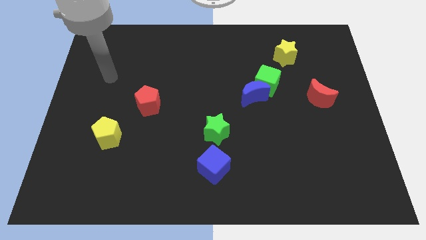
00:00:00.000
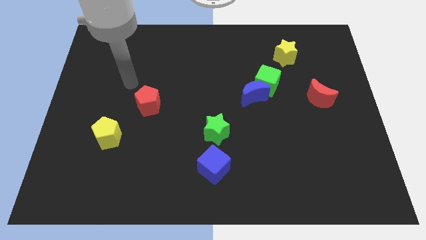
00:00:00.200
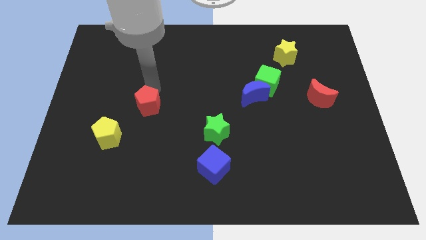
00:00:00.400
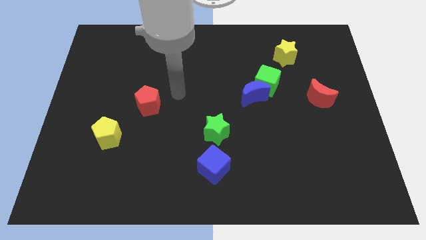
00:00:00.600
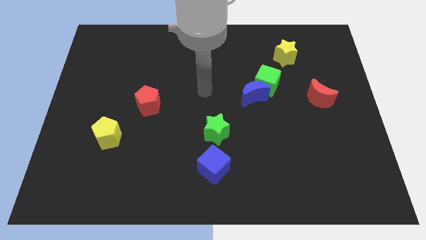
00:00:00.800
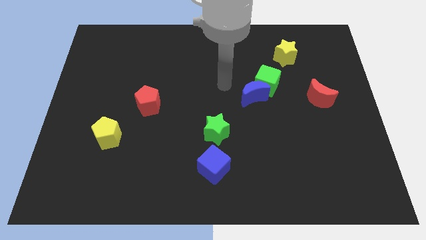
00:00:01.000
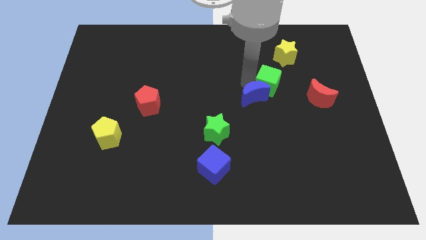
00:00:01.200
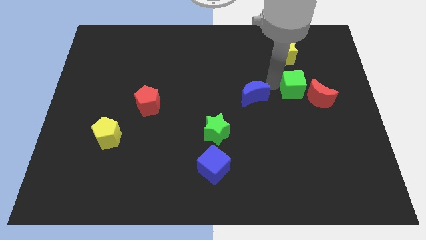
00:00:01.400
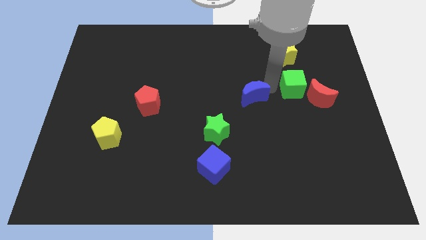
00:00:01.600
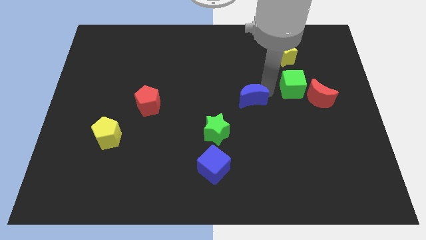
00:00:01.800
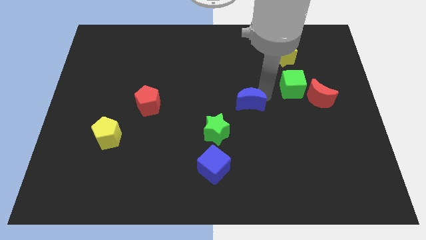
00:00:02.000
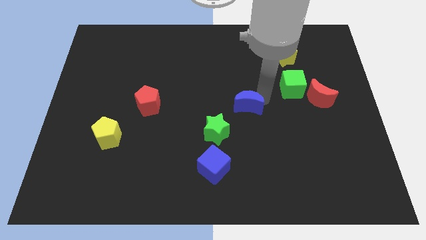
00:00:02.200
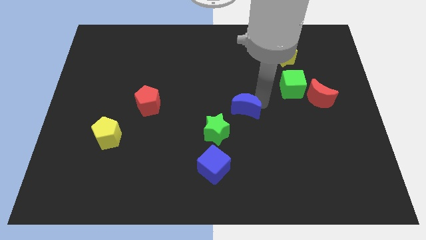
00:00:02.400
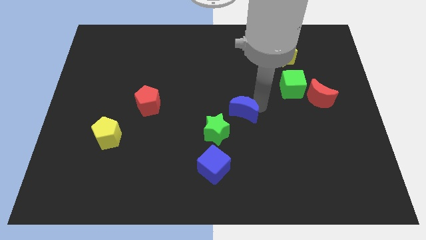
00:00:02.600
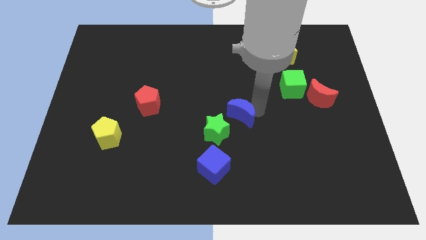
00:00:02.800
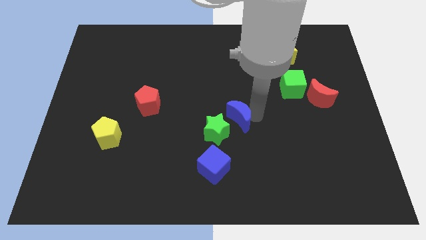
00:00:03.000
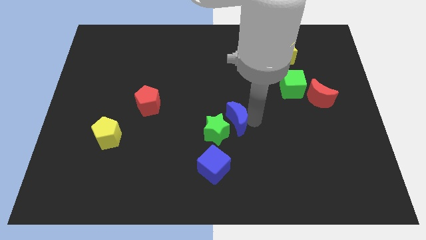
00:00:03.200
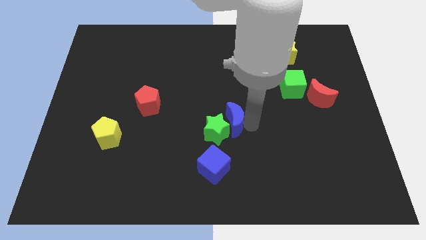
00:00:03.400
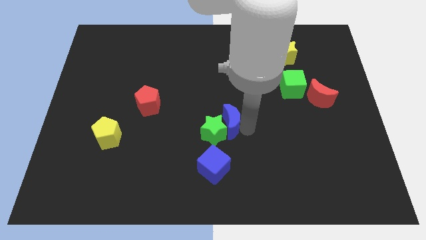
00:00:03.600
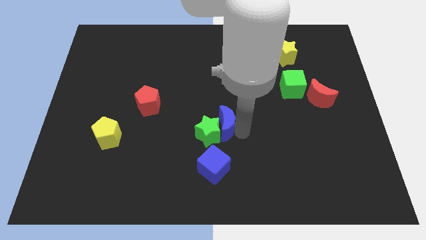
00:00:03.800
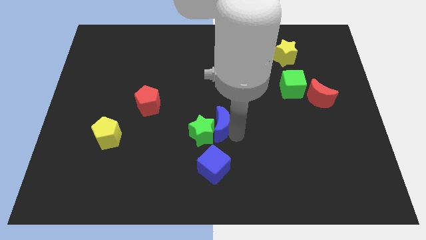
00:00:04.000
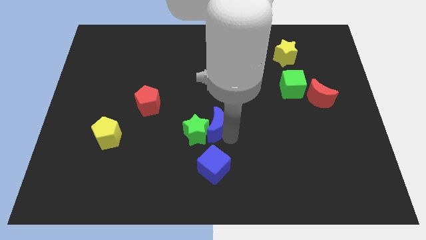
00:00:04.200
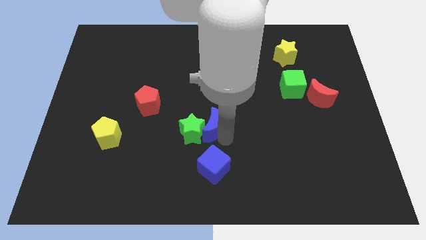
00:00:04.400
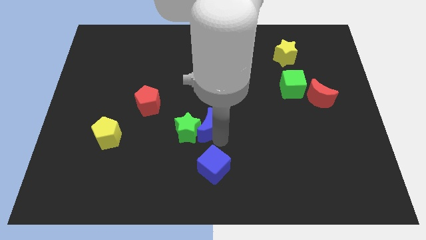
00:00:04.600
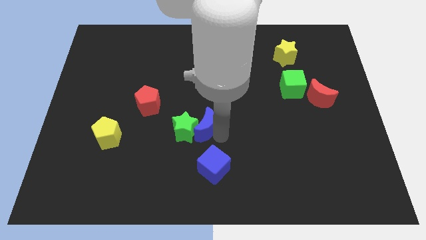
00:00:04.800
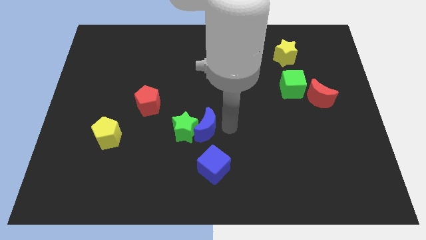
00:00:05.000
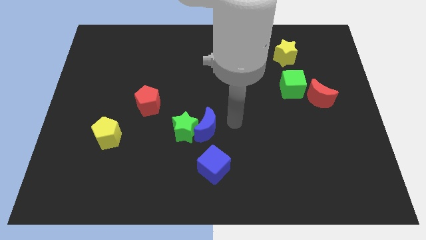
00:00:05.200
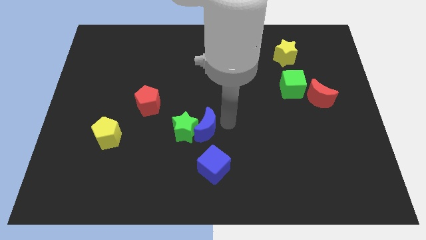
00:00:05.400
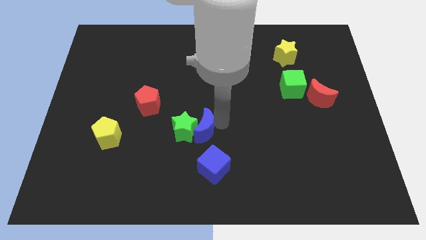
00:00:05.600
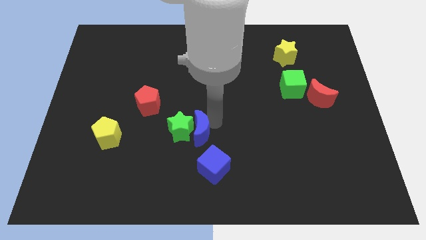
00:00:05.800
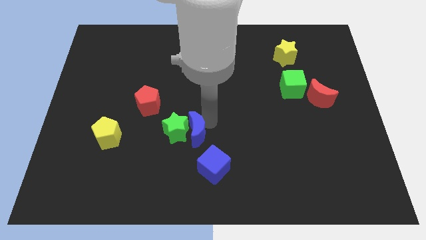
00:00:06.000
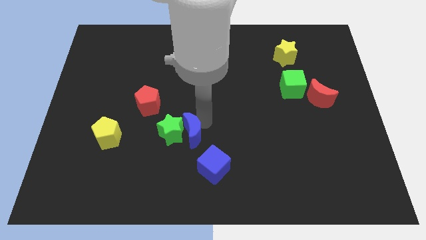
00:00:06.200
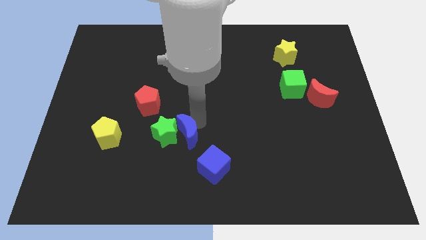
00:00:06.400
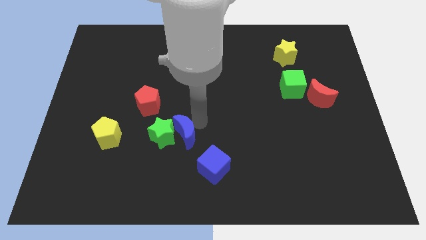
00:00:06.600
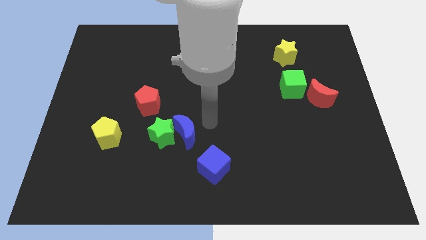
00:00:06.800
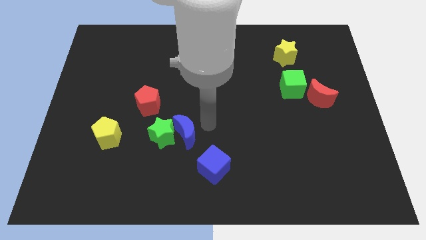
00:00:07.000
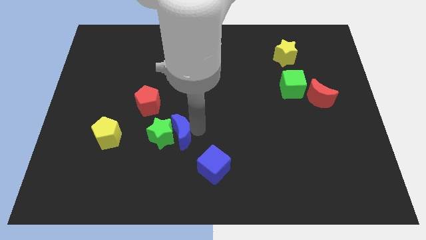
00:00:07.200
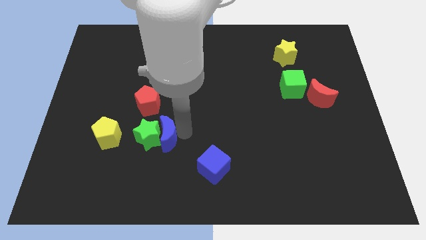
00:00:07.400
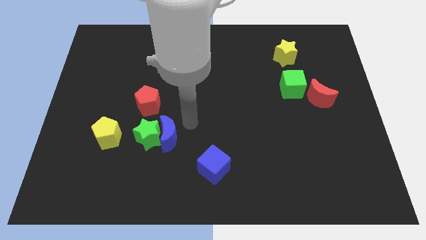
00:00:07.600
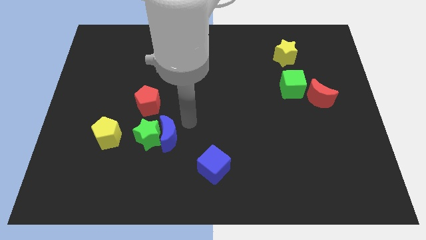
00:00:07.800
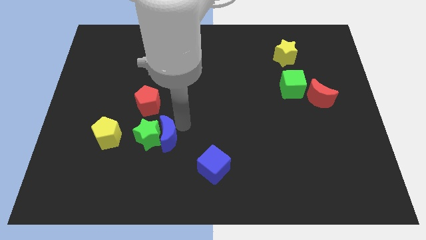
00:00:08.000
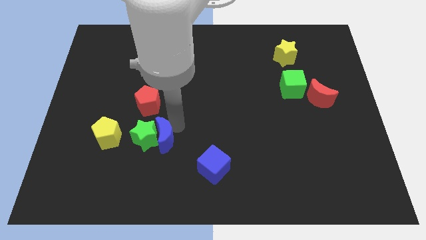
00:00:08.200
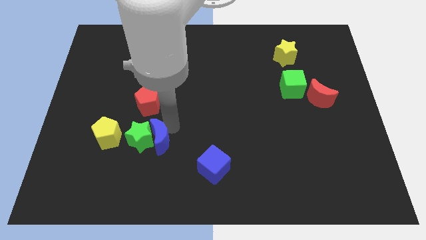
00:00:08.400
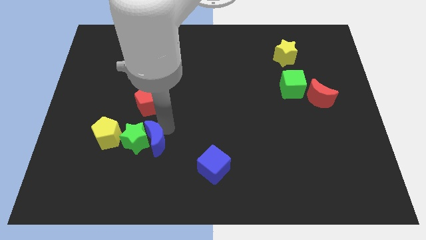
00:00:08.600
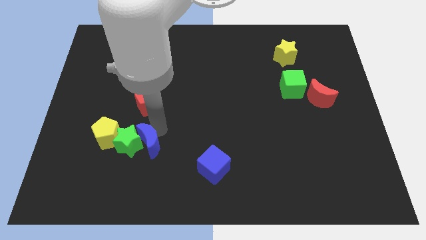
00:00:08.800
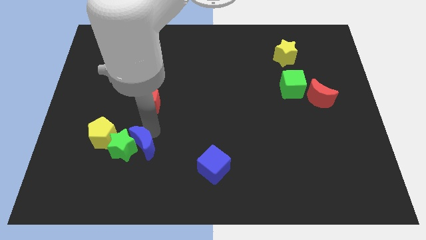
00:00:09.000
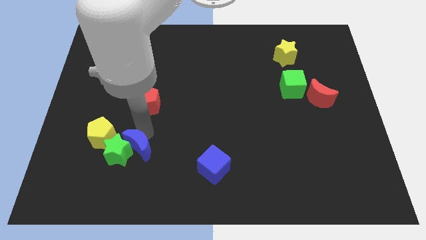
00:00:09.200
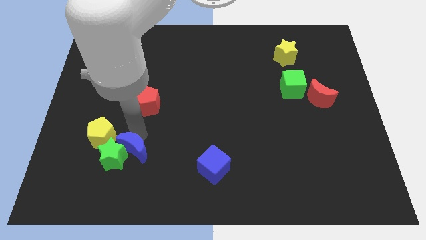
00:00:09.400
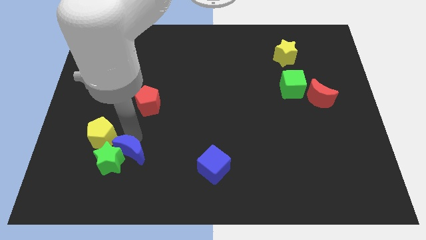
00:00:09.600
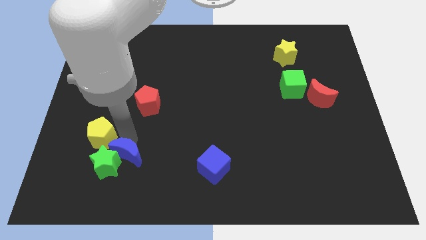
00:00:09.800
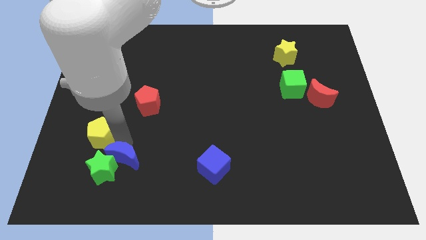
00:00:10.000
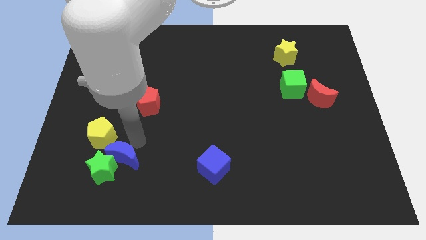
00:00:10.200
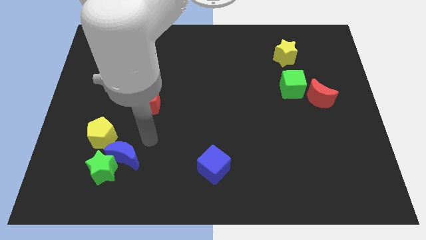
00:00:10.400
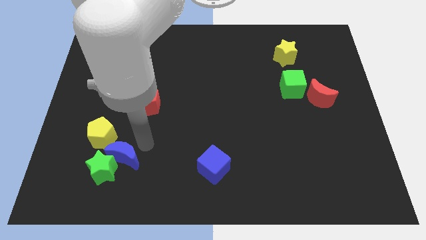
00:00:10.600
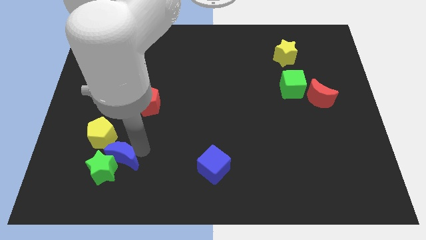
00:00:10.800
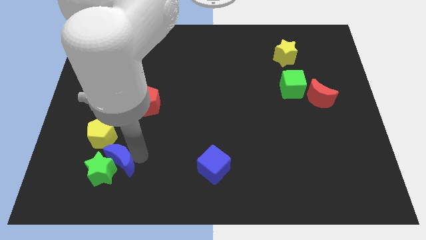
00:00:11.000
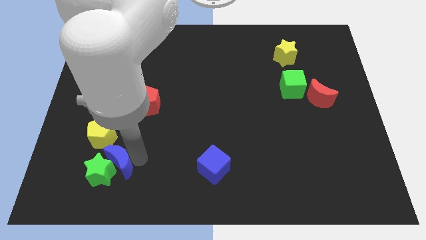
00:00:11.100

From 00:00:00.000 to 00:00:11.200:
move the blue moon to the bottom side of the yellow pentagon

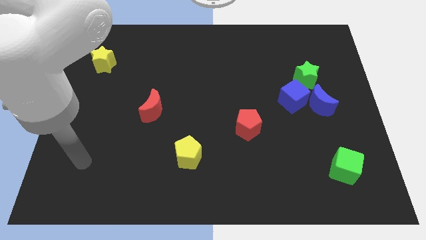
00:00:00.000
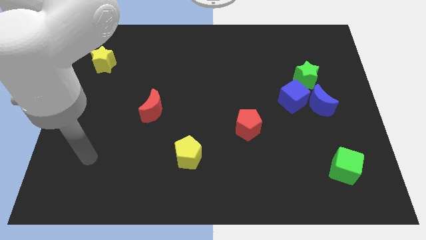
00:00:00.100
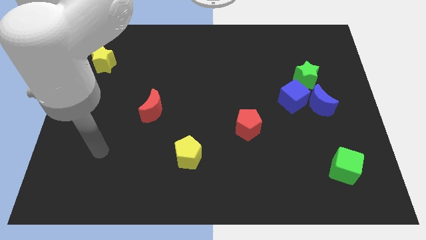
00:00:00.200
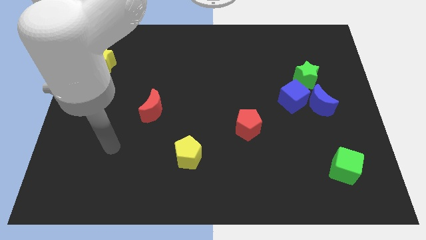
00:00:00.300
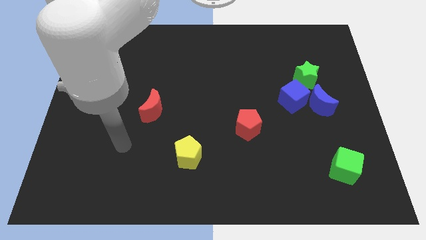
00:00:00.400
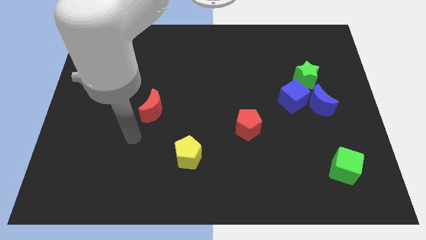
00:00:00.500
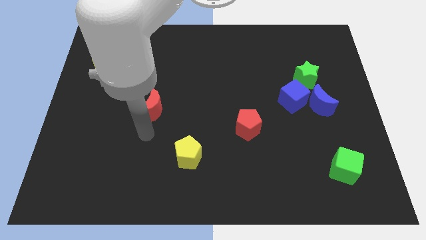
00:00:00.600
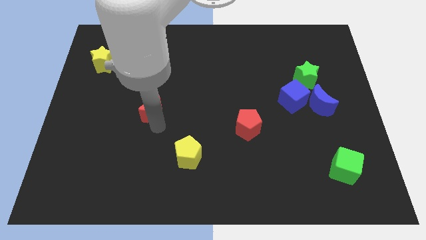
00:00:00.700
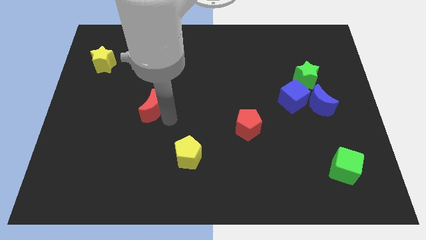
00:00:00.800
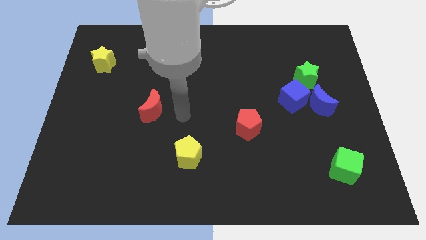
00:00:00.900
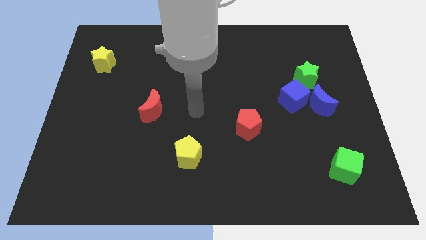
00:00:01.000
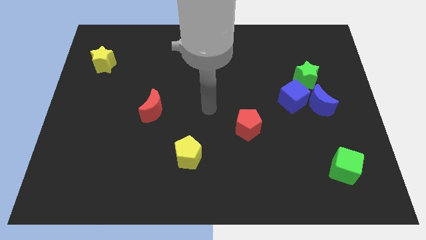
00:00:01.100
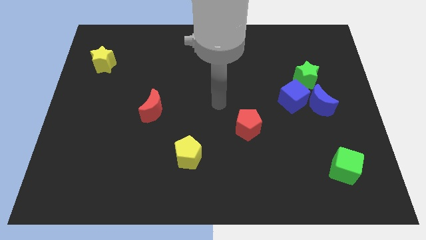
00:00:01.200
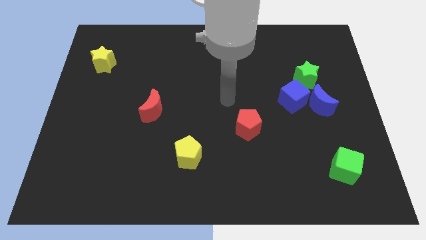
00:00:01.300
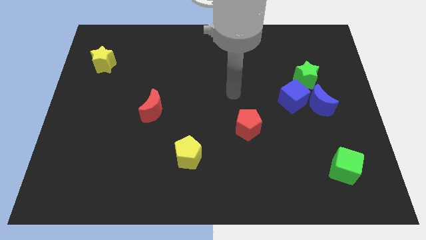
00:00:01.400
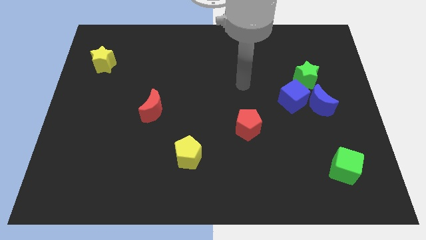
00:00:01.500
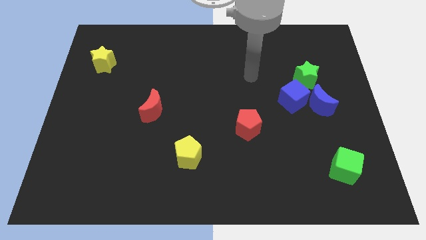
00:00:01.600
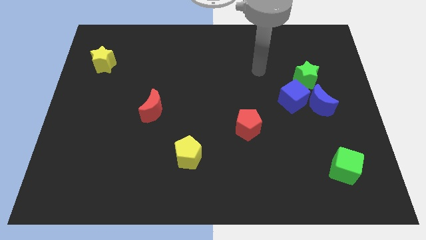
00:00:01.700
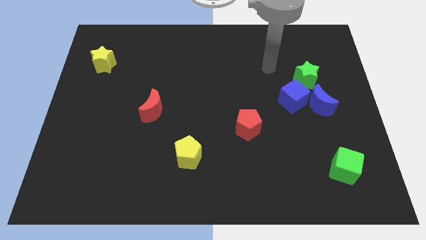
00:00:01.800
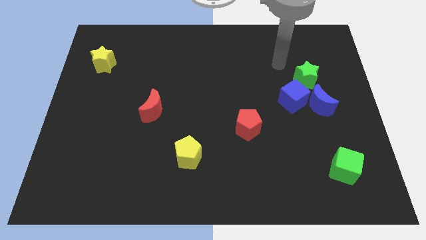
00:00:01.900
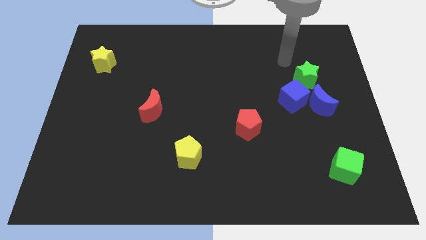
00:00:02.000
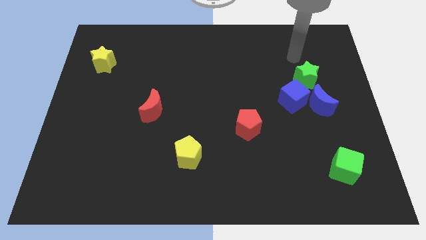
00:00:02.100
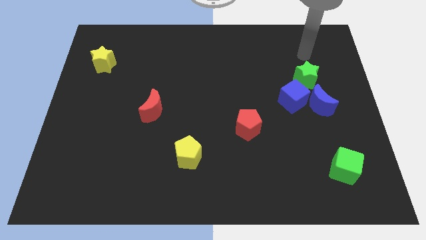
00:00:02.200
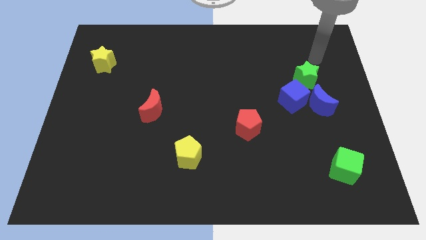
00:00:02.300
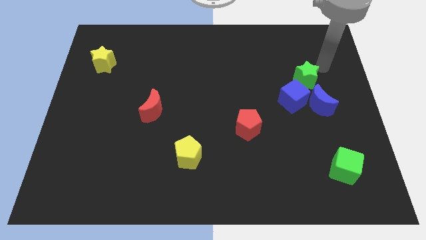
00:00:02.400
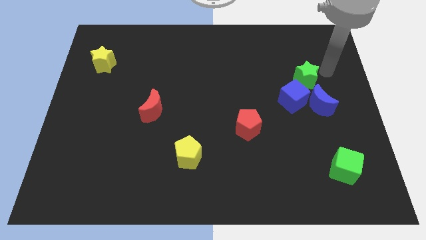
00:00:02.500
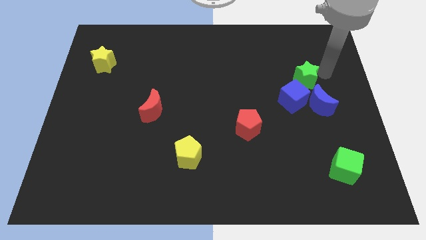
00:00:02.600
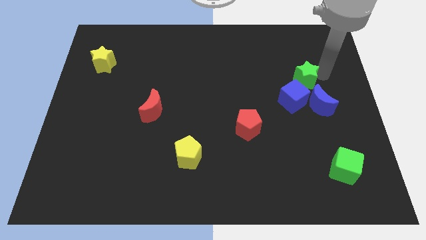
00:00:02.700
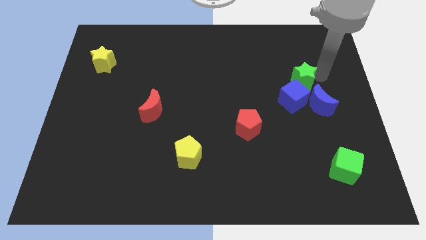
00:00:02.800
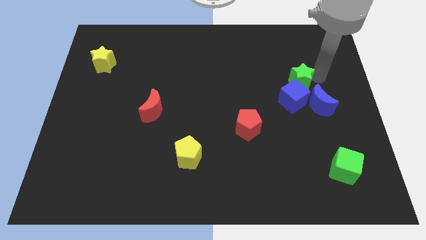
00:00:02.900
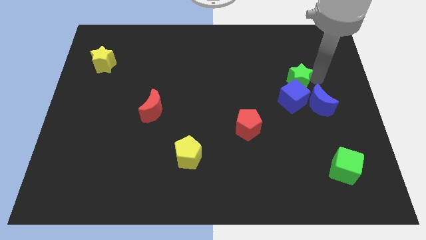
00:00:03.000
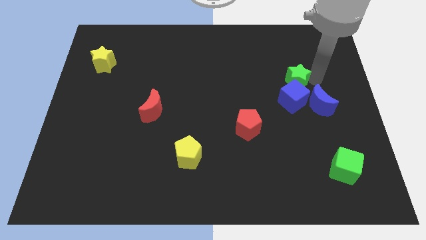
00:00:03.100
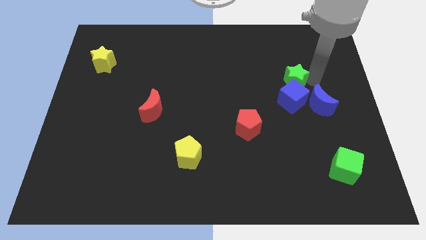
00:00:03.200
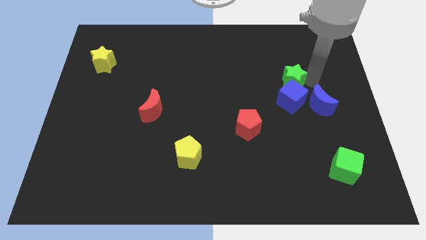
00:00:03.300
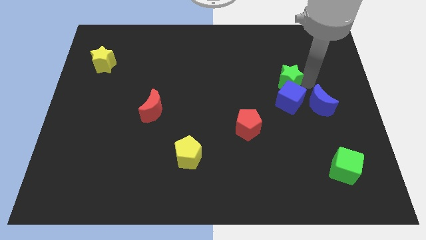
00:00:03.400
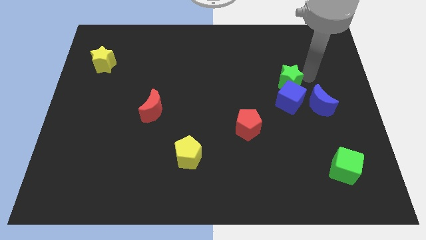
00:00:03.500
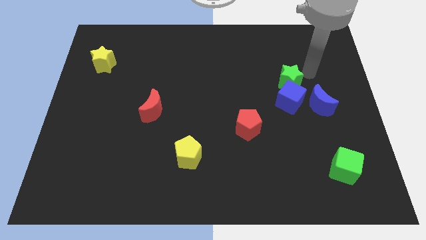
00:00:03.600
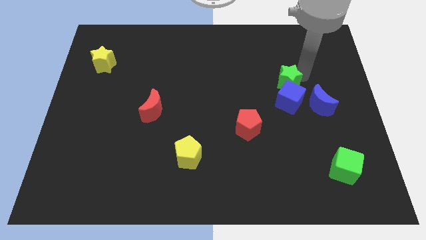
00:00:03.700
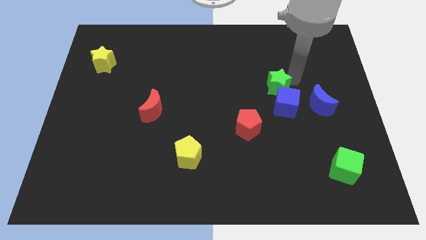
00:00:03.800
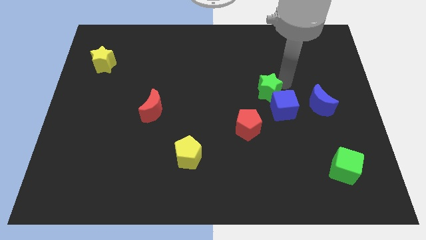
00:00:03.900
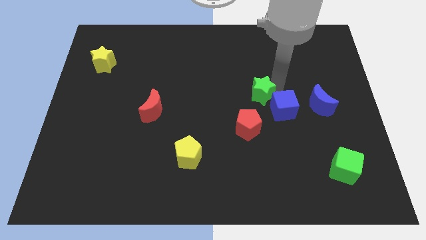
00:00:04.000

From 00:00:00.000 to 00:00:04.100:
slide the green star just left of the blue cube
